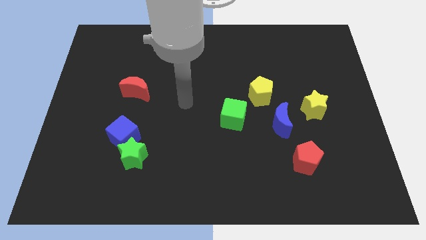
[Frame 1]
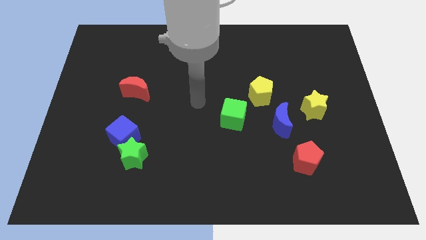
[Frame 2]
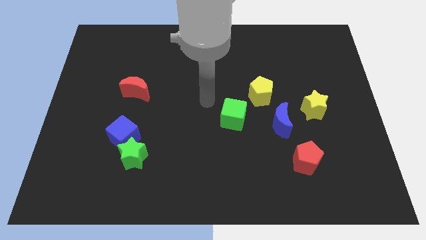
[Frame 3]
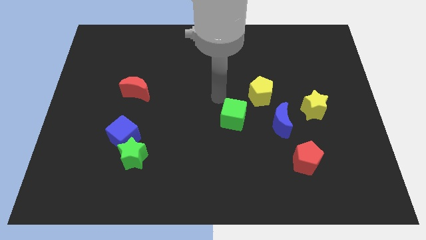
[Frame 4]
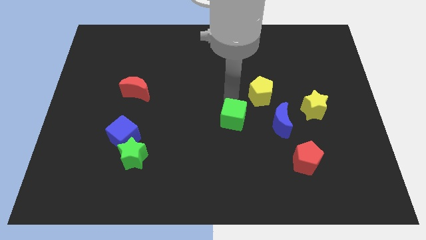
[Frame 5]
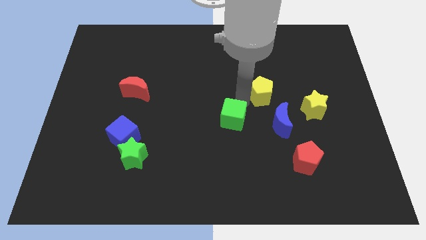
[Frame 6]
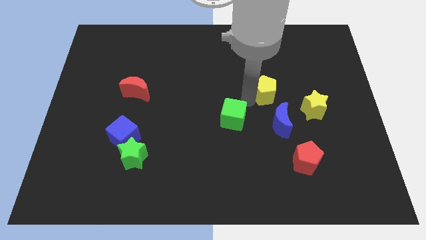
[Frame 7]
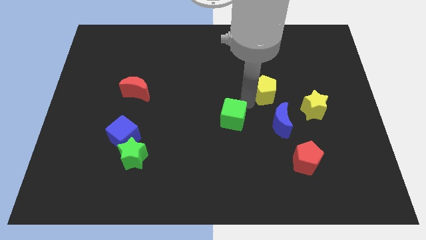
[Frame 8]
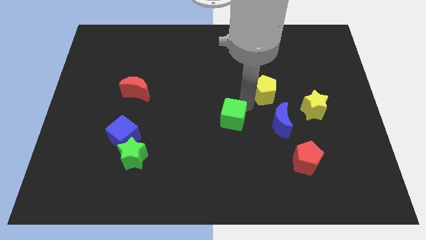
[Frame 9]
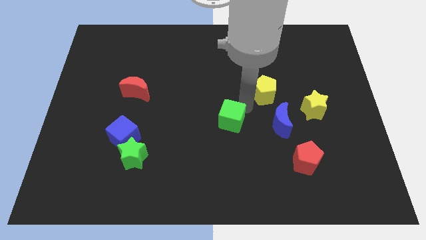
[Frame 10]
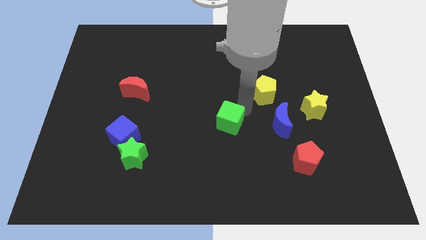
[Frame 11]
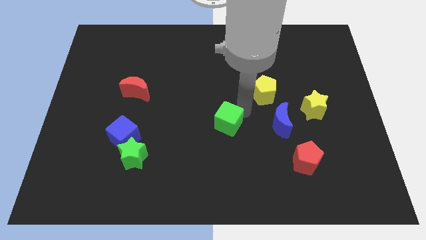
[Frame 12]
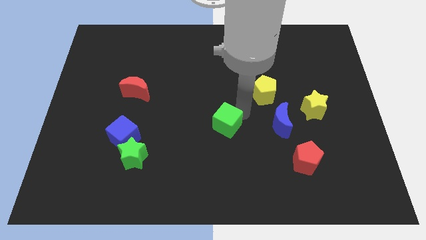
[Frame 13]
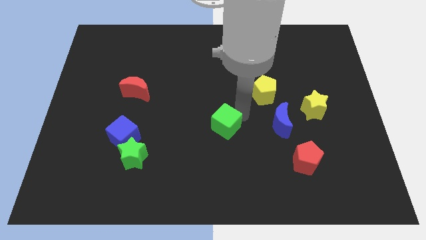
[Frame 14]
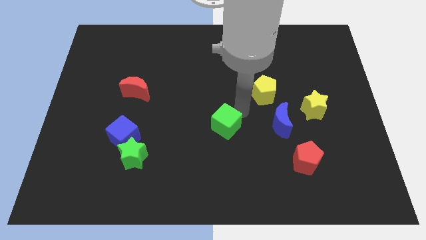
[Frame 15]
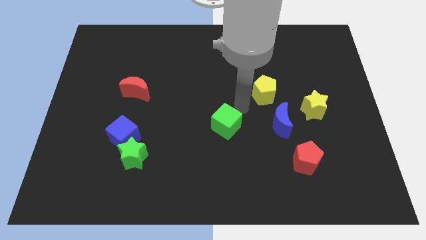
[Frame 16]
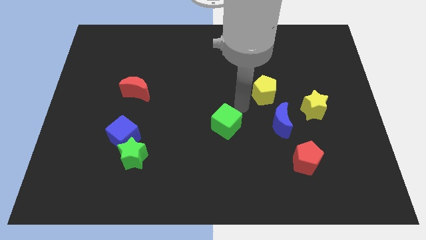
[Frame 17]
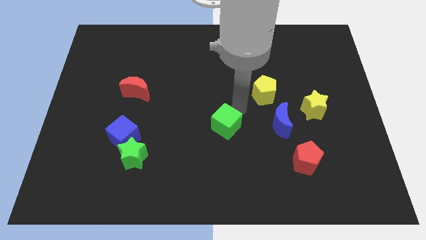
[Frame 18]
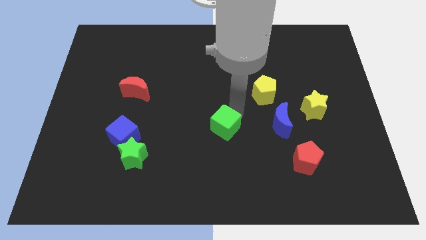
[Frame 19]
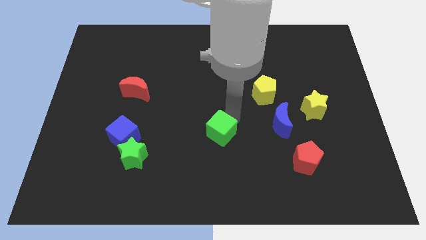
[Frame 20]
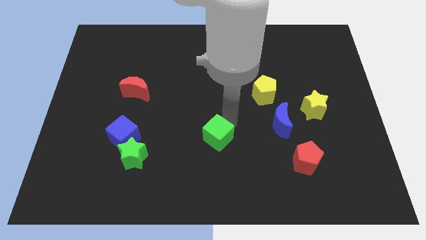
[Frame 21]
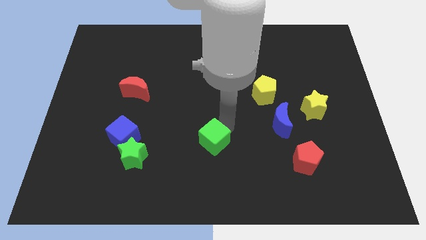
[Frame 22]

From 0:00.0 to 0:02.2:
slightly slide the green cube downwards and left

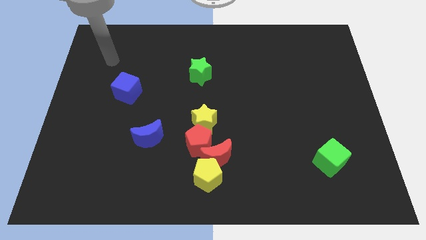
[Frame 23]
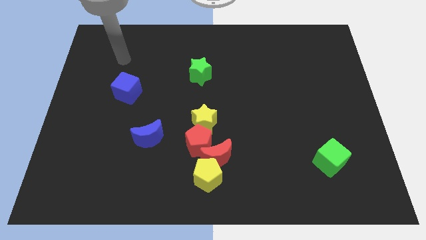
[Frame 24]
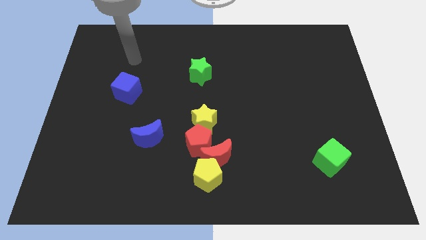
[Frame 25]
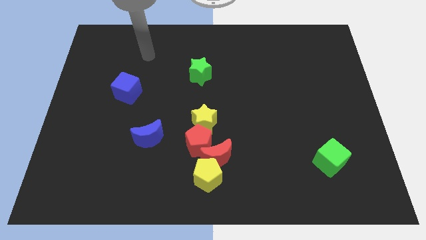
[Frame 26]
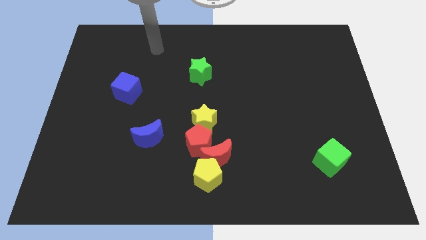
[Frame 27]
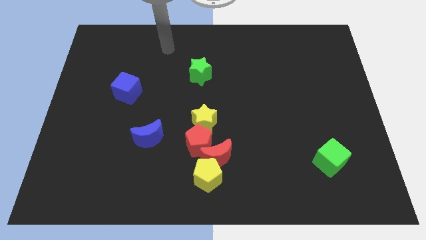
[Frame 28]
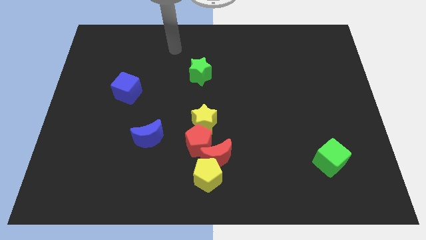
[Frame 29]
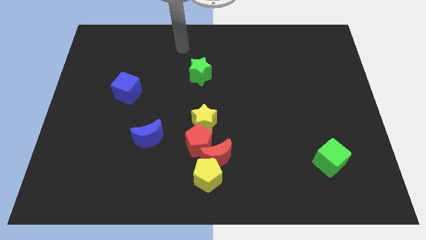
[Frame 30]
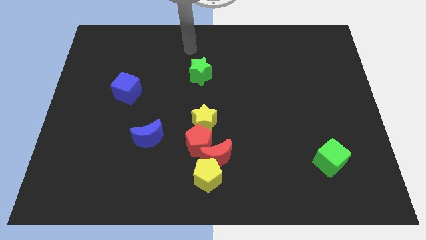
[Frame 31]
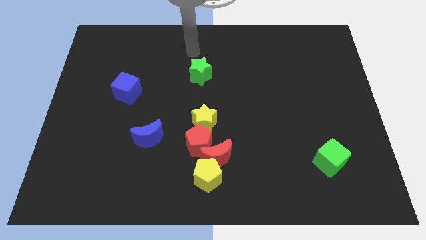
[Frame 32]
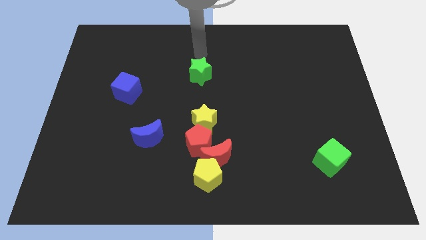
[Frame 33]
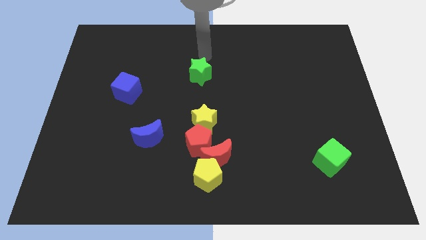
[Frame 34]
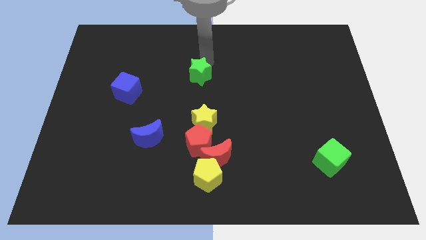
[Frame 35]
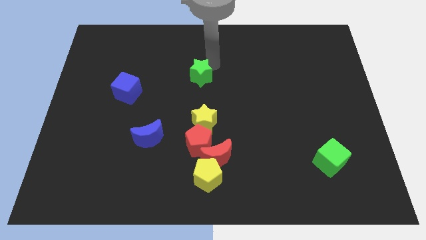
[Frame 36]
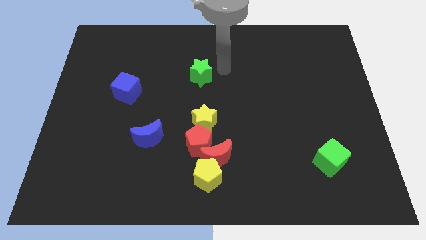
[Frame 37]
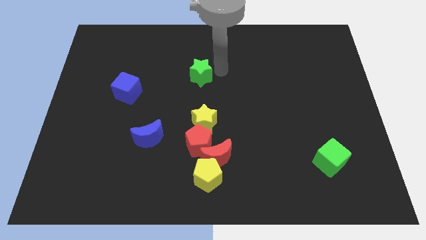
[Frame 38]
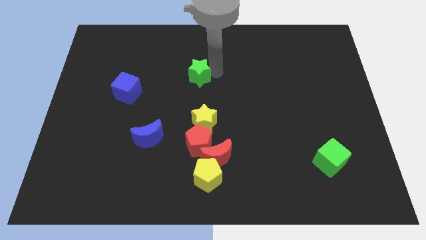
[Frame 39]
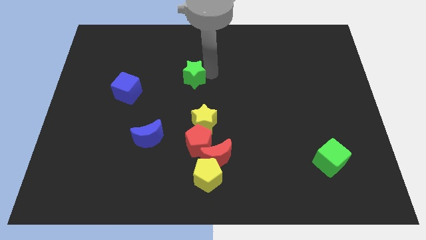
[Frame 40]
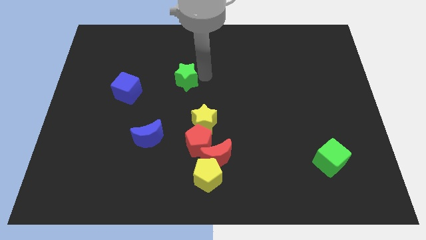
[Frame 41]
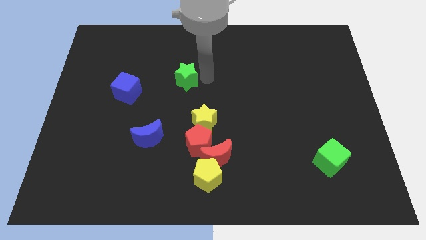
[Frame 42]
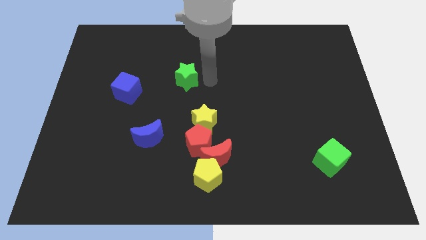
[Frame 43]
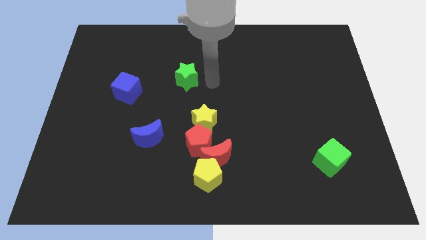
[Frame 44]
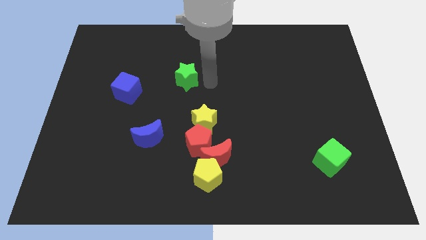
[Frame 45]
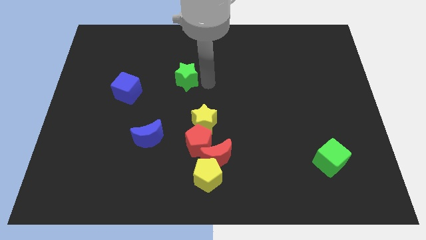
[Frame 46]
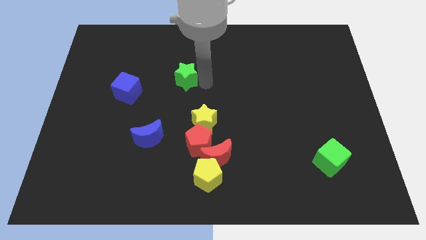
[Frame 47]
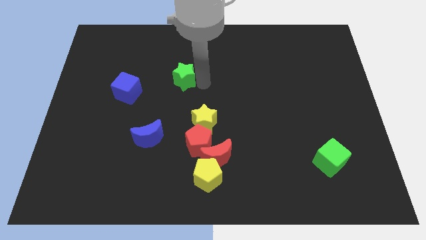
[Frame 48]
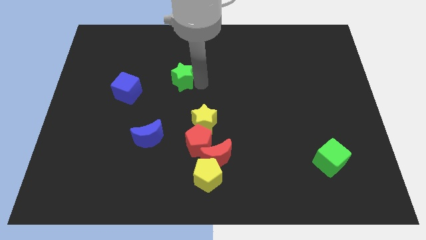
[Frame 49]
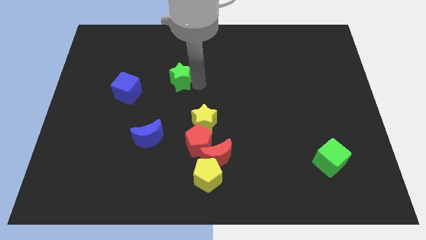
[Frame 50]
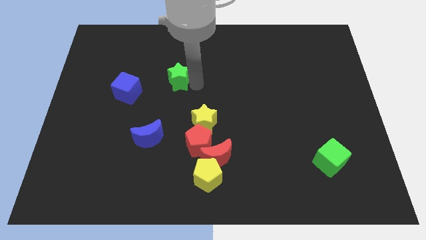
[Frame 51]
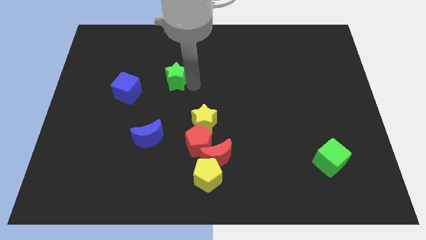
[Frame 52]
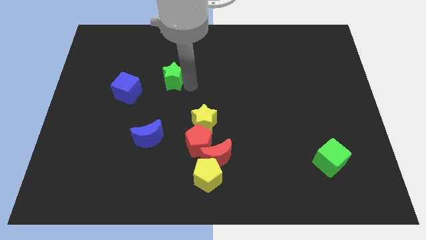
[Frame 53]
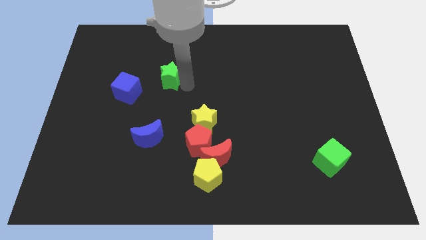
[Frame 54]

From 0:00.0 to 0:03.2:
slightly slide the green star to the left

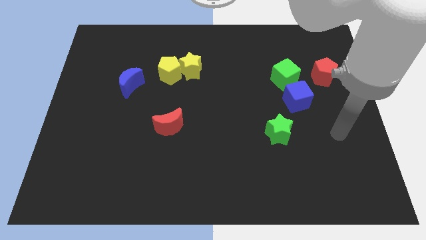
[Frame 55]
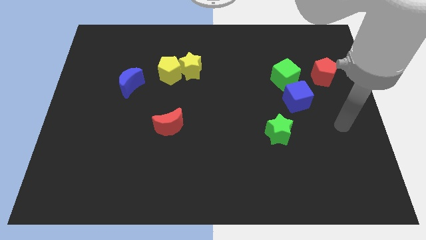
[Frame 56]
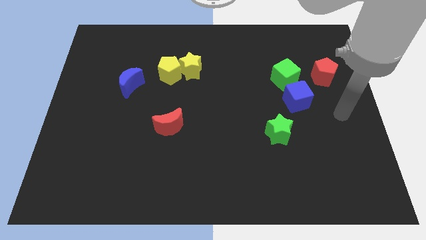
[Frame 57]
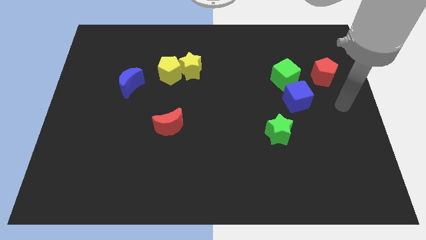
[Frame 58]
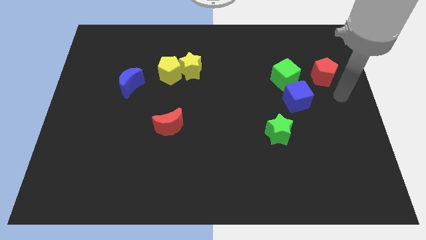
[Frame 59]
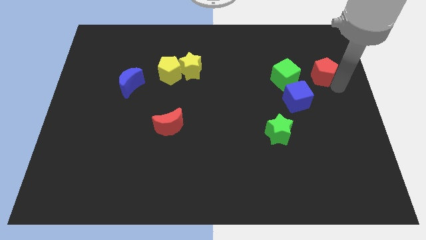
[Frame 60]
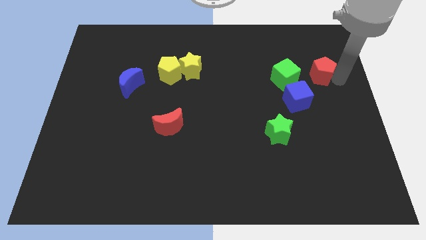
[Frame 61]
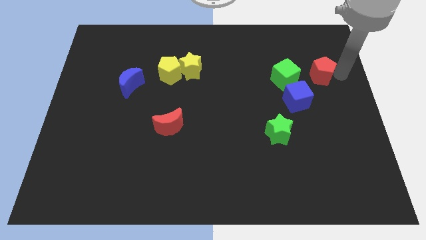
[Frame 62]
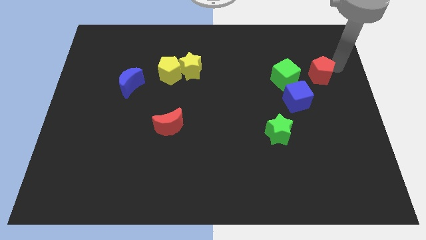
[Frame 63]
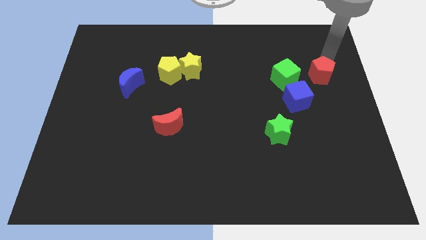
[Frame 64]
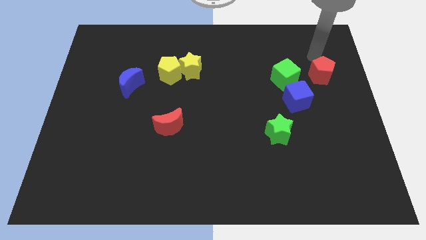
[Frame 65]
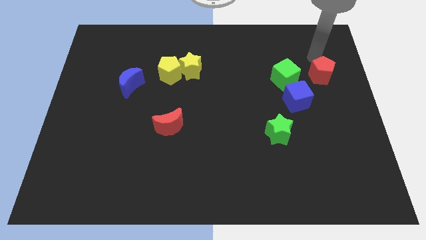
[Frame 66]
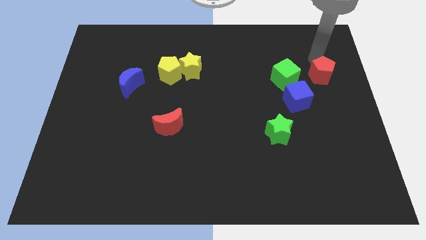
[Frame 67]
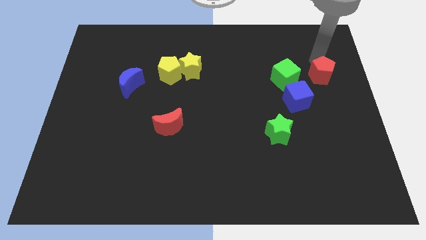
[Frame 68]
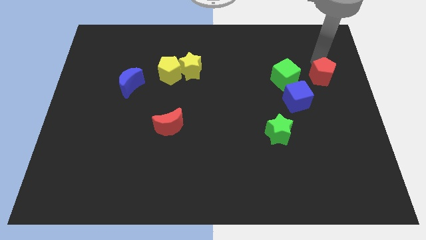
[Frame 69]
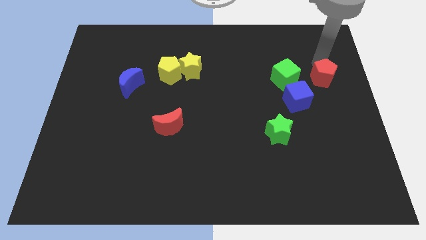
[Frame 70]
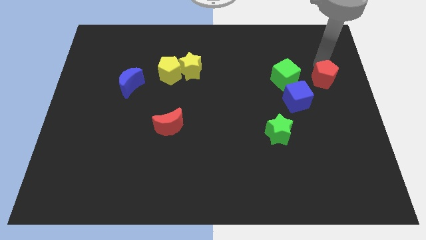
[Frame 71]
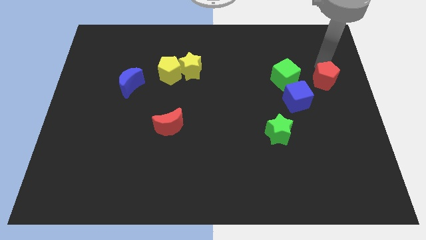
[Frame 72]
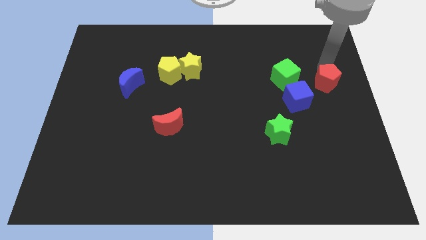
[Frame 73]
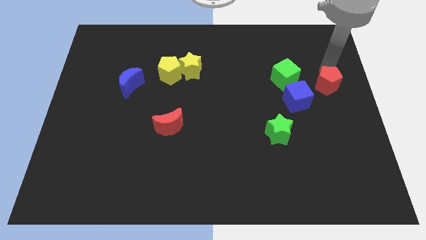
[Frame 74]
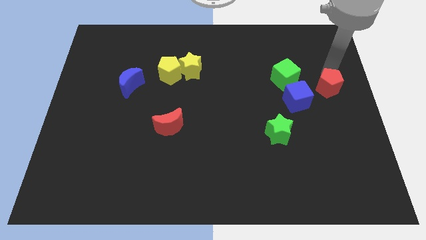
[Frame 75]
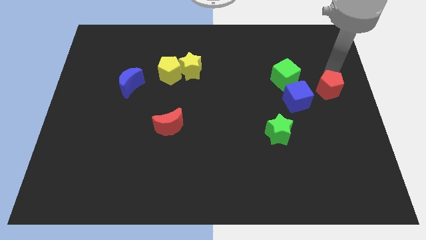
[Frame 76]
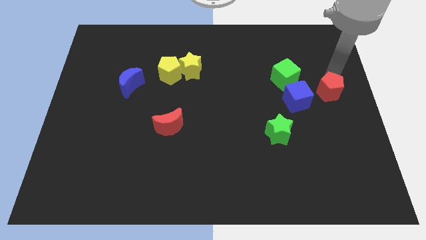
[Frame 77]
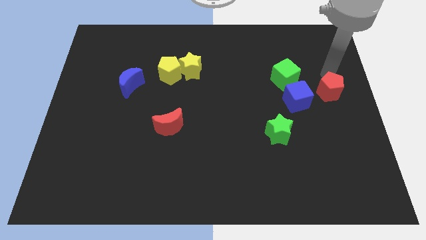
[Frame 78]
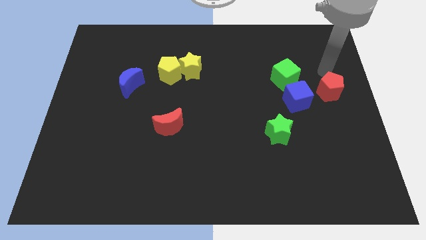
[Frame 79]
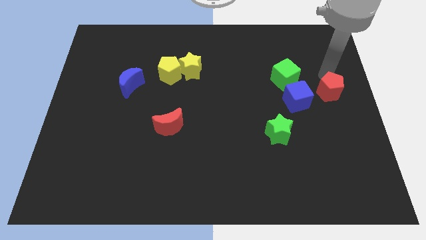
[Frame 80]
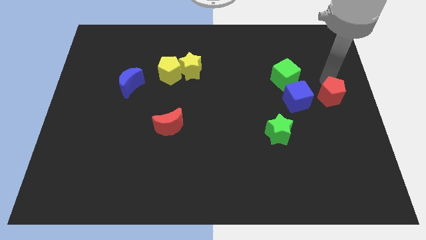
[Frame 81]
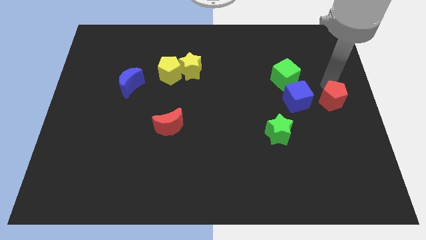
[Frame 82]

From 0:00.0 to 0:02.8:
slide the red pentagon downwards slightly
